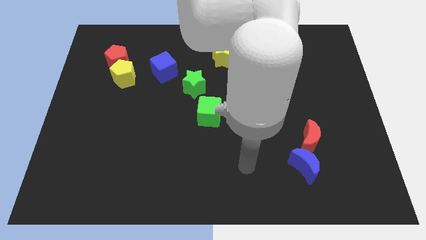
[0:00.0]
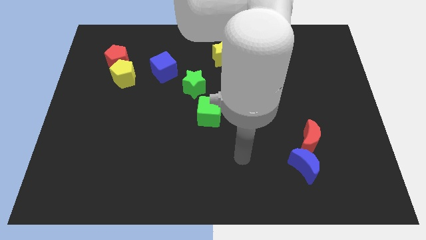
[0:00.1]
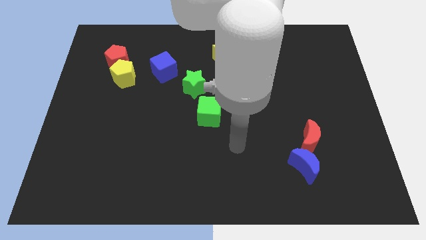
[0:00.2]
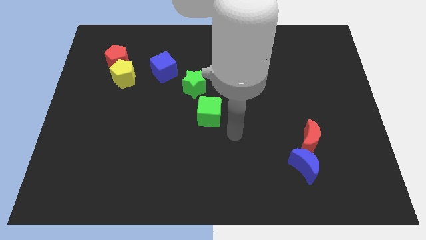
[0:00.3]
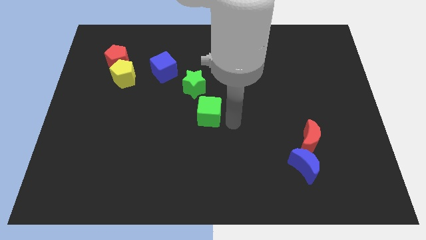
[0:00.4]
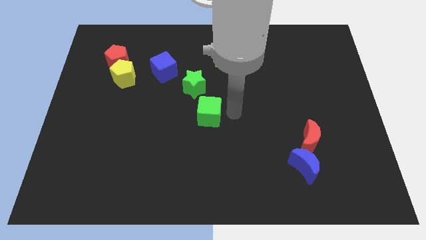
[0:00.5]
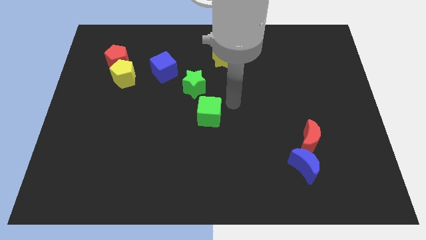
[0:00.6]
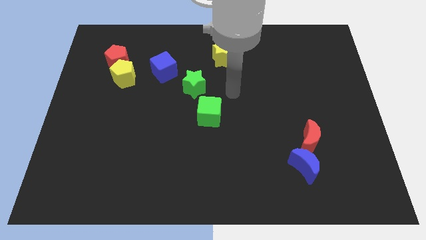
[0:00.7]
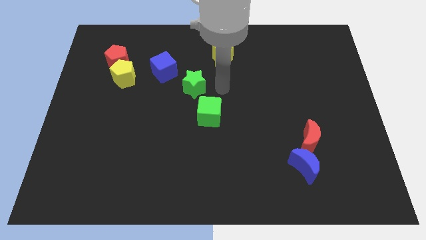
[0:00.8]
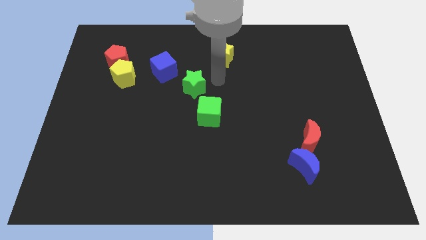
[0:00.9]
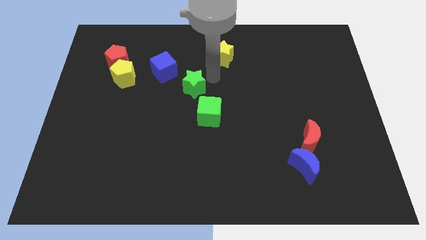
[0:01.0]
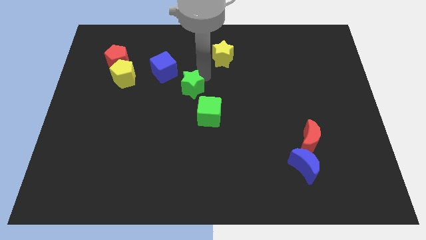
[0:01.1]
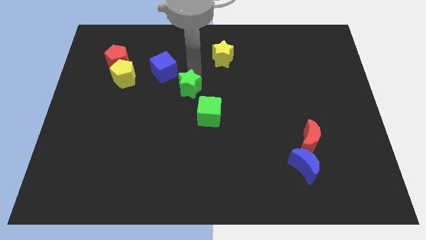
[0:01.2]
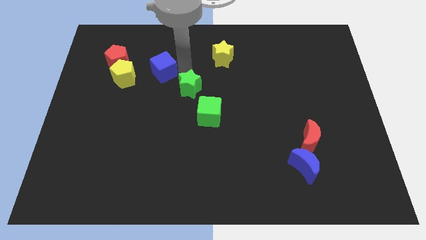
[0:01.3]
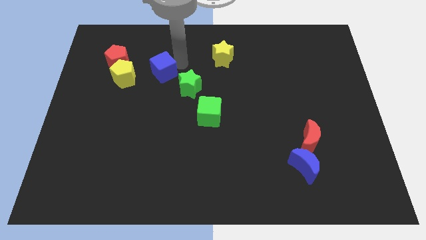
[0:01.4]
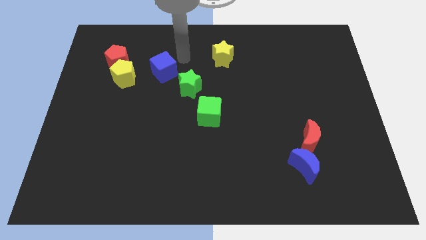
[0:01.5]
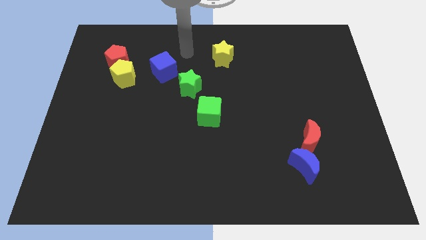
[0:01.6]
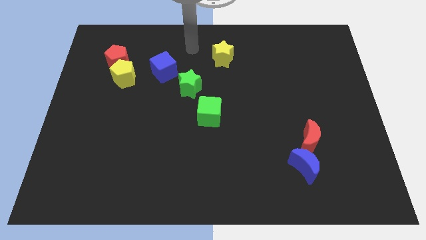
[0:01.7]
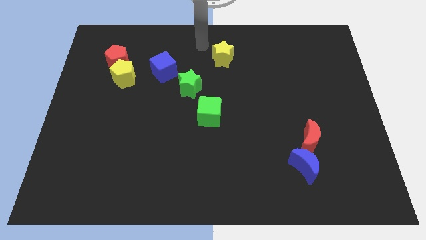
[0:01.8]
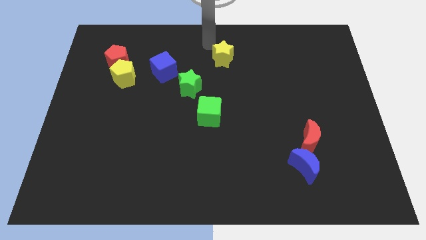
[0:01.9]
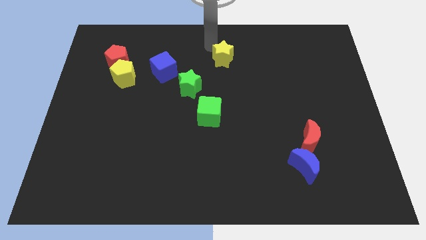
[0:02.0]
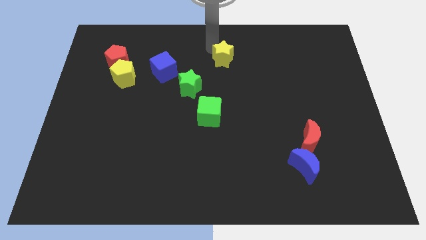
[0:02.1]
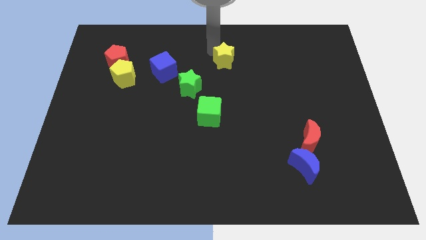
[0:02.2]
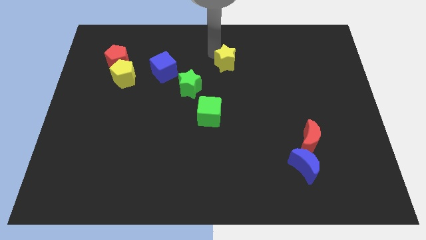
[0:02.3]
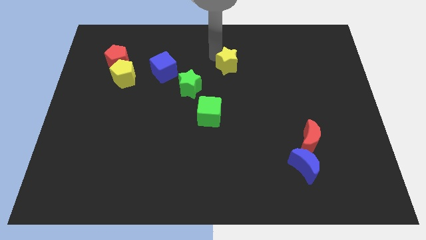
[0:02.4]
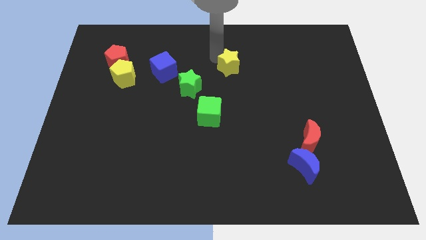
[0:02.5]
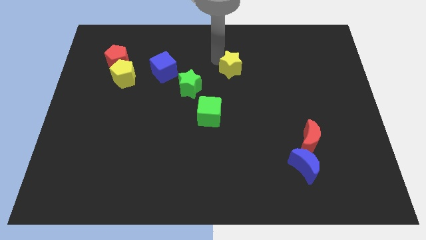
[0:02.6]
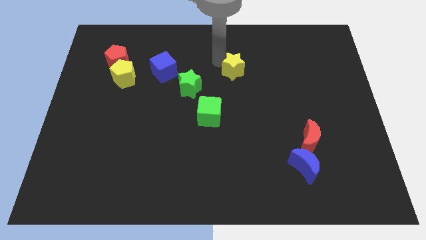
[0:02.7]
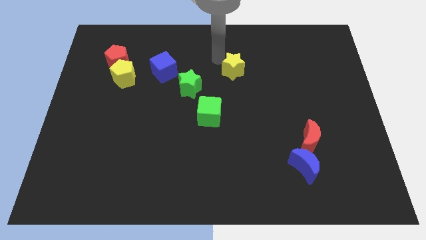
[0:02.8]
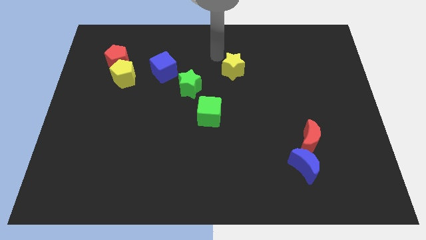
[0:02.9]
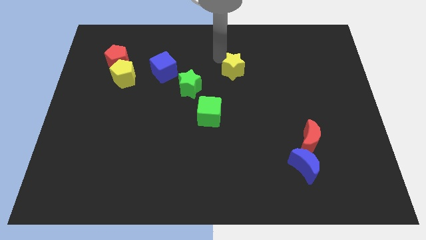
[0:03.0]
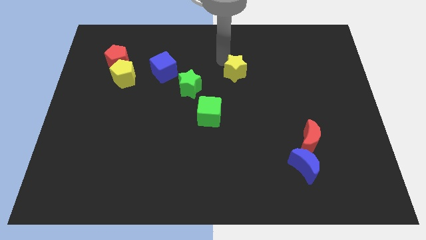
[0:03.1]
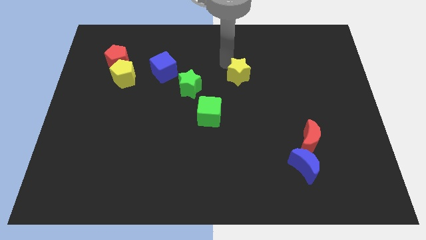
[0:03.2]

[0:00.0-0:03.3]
move the yellow star downwards and to the right diagonally a bit

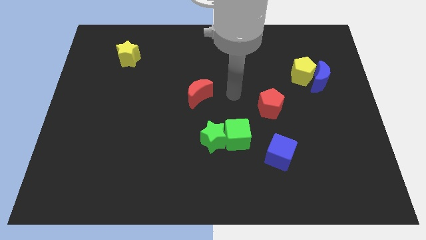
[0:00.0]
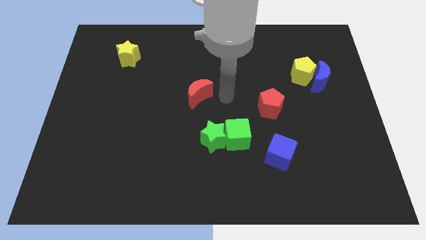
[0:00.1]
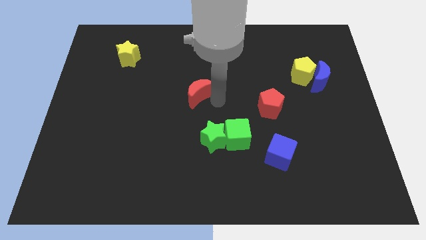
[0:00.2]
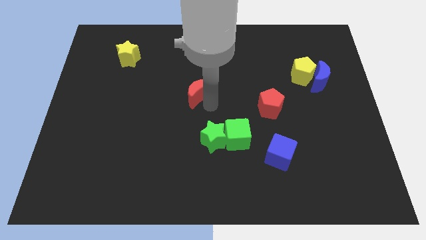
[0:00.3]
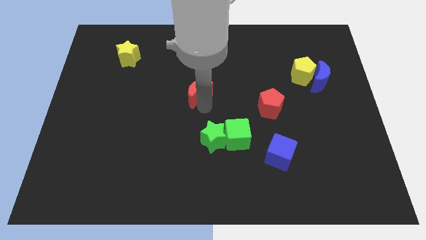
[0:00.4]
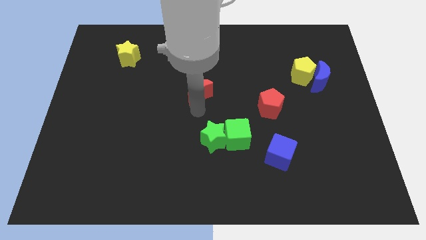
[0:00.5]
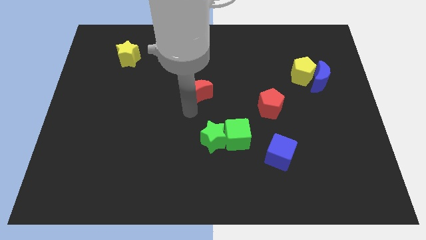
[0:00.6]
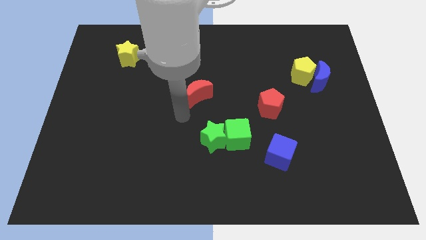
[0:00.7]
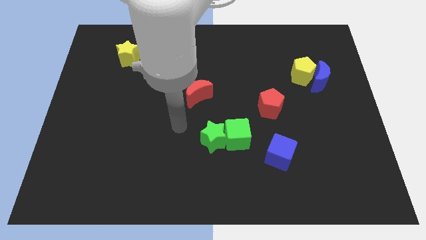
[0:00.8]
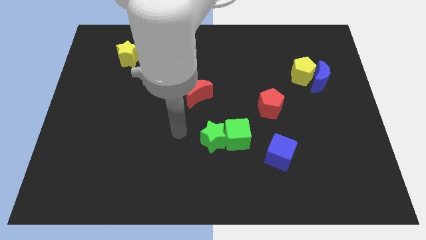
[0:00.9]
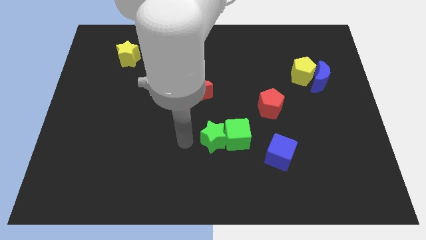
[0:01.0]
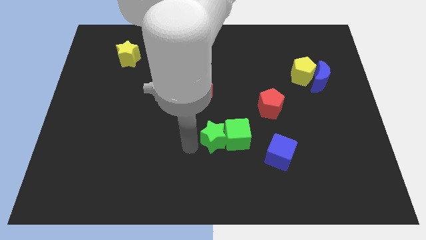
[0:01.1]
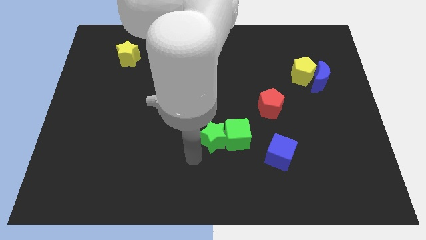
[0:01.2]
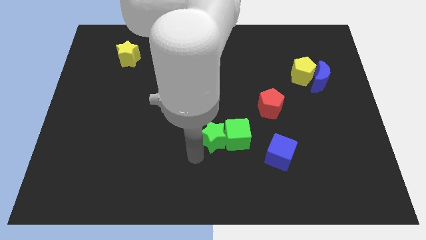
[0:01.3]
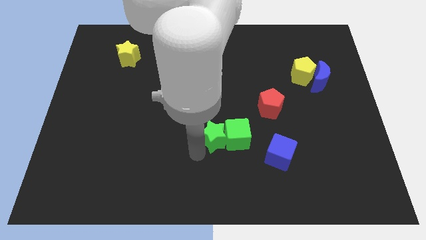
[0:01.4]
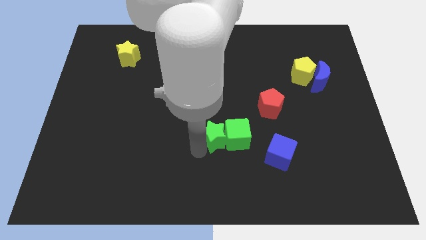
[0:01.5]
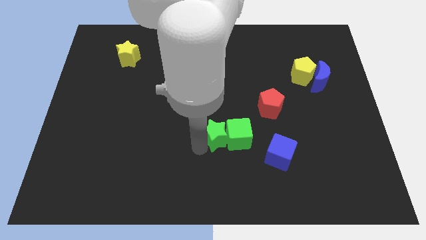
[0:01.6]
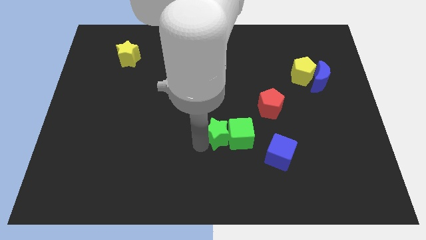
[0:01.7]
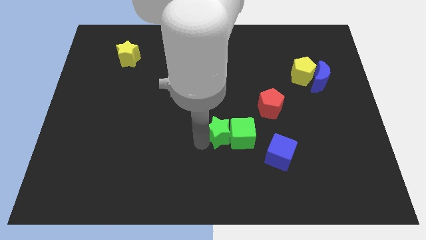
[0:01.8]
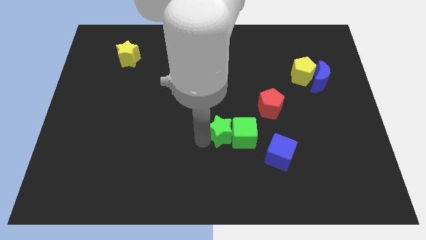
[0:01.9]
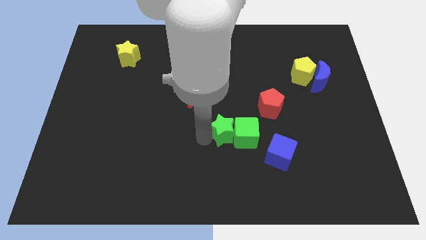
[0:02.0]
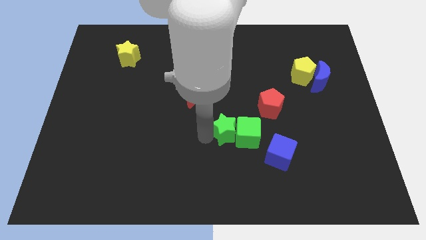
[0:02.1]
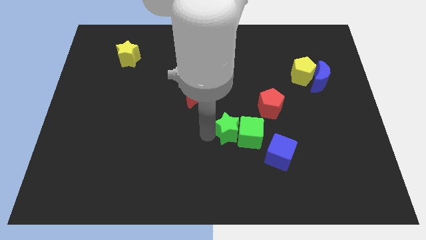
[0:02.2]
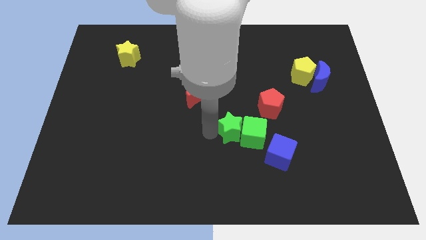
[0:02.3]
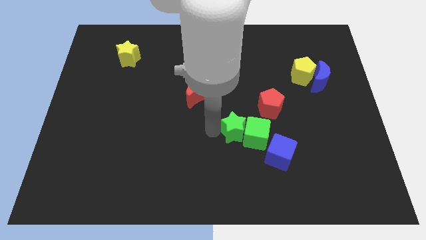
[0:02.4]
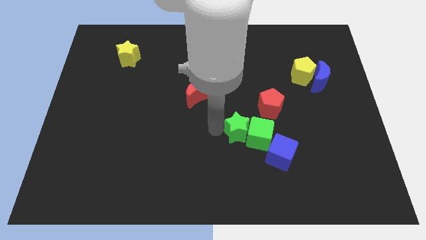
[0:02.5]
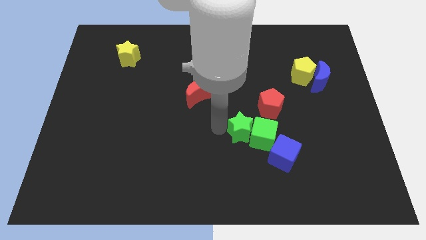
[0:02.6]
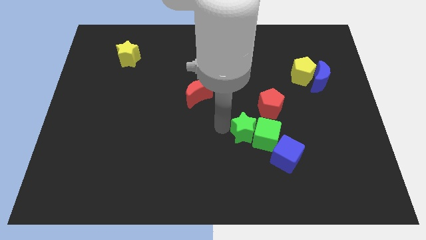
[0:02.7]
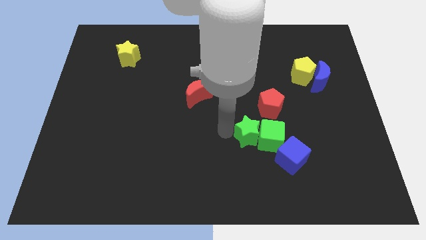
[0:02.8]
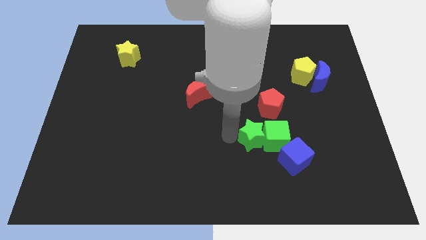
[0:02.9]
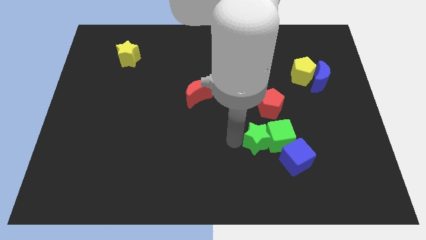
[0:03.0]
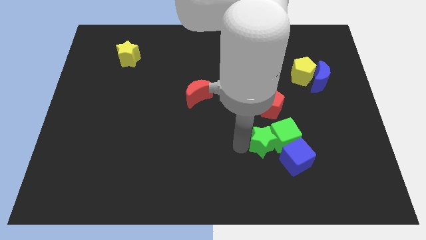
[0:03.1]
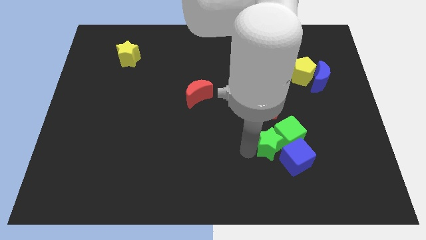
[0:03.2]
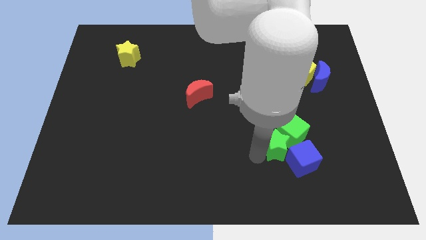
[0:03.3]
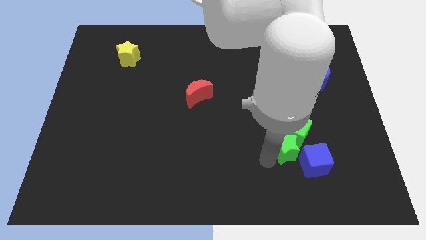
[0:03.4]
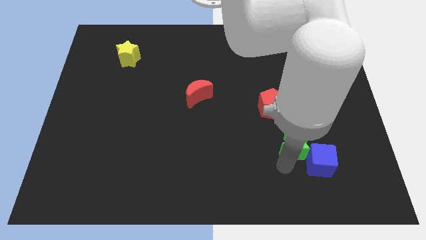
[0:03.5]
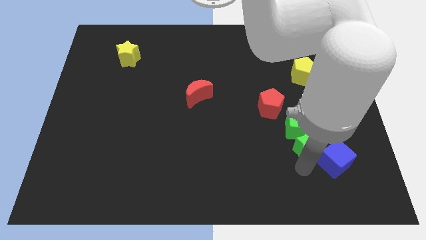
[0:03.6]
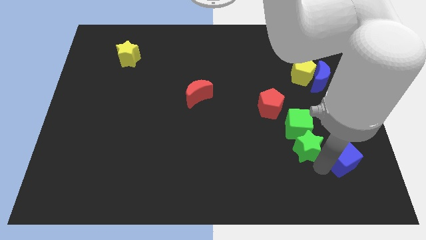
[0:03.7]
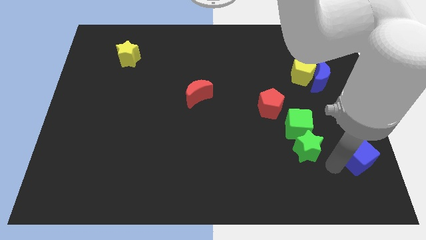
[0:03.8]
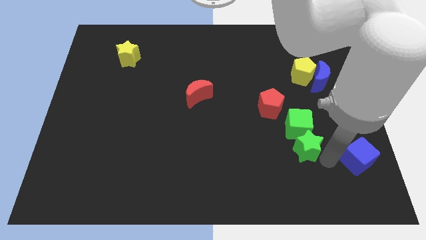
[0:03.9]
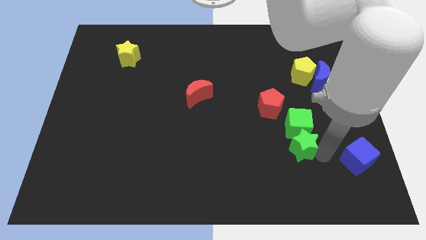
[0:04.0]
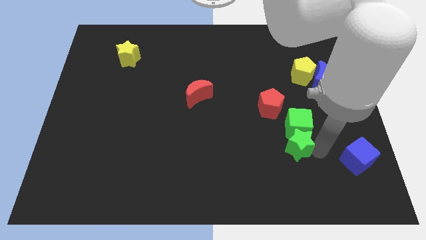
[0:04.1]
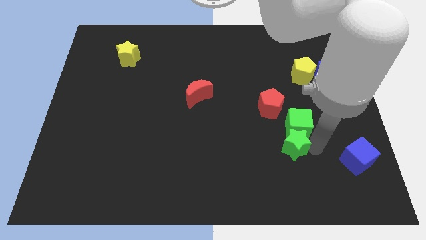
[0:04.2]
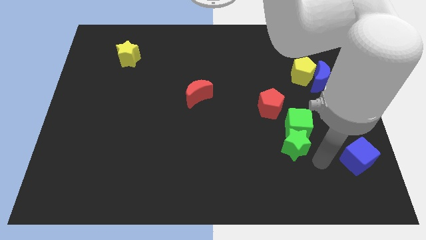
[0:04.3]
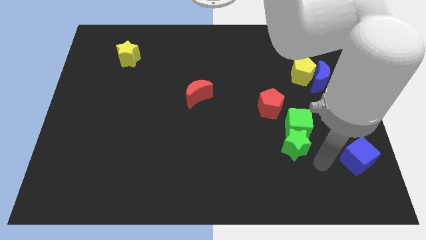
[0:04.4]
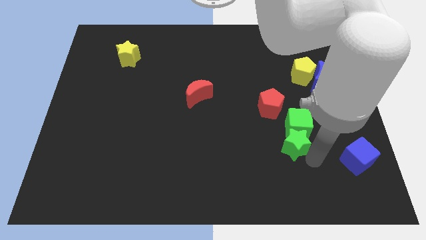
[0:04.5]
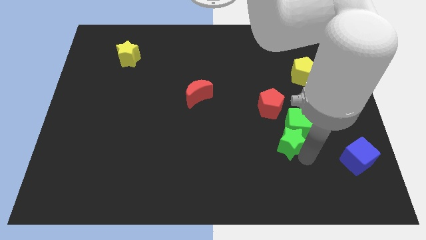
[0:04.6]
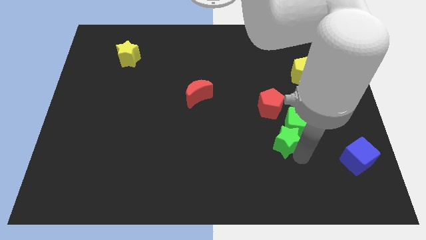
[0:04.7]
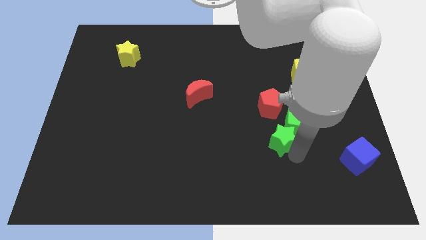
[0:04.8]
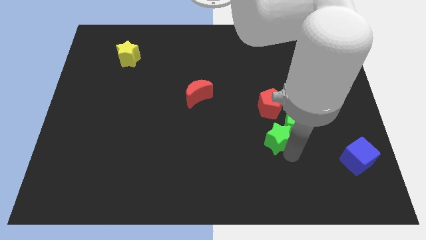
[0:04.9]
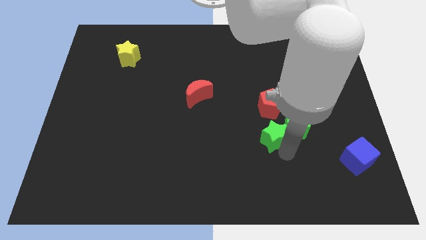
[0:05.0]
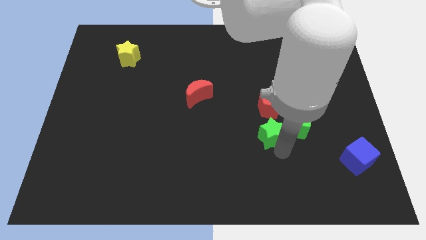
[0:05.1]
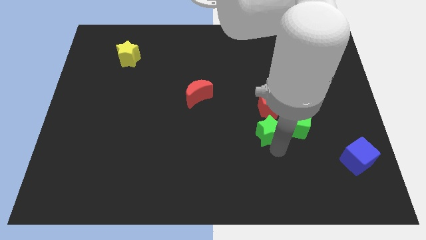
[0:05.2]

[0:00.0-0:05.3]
slide the green star a little up and right diagonally
